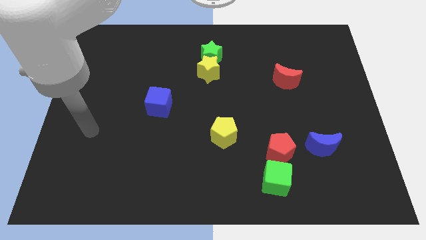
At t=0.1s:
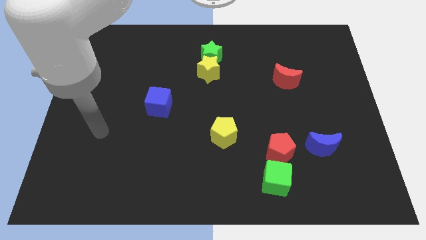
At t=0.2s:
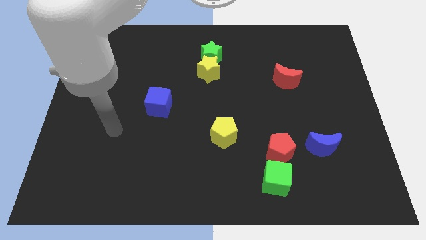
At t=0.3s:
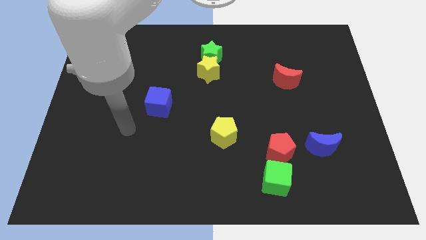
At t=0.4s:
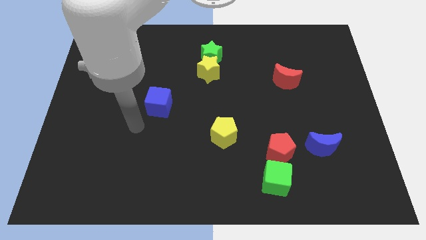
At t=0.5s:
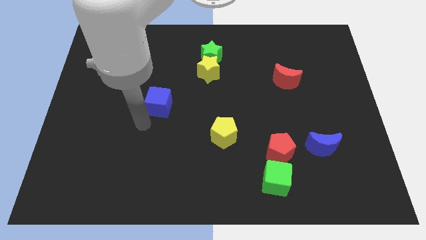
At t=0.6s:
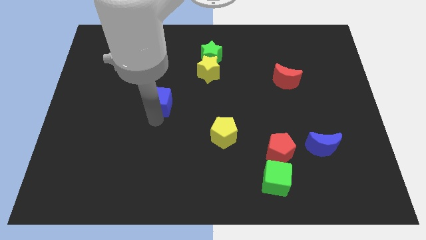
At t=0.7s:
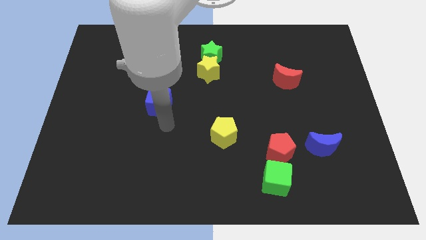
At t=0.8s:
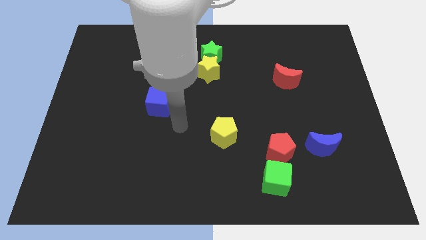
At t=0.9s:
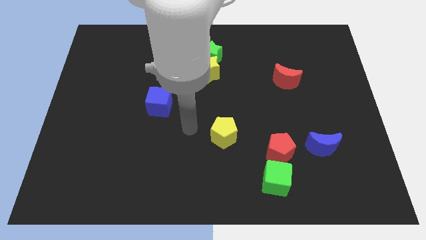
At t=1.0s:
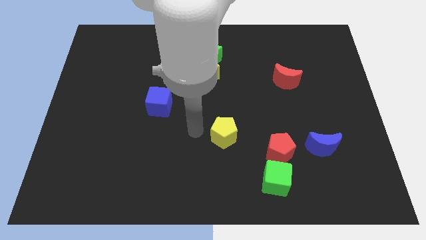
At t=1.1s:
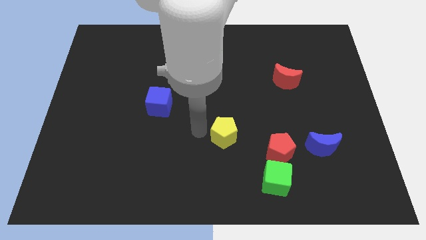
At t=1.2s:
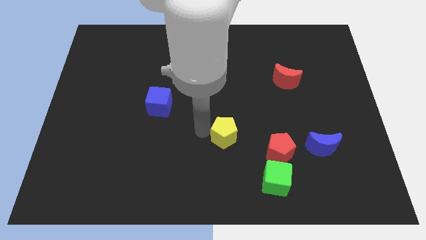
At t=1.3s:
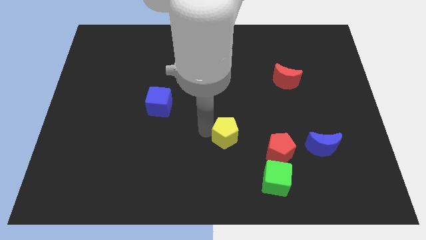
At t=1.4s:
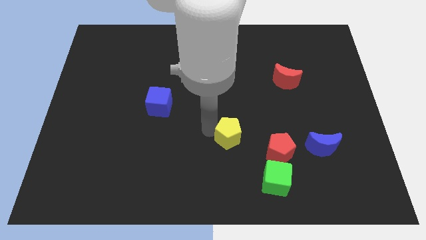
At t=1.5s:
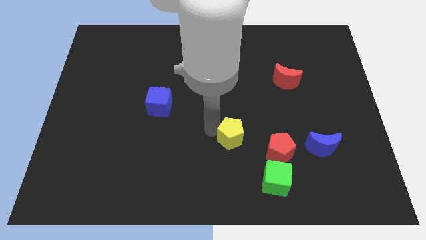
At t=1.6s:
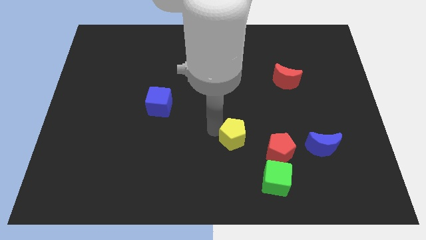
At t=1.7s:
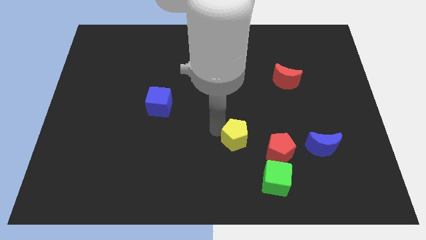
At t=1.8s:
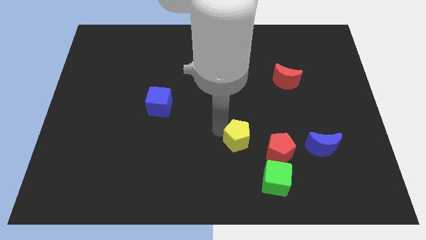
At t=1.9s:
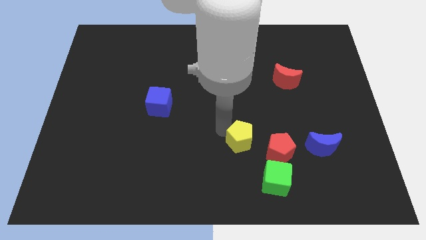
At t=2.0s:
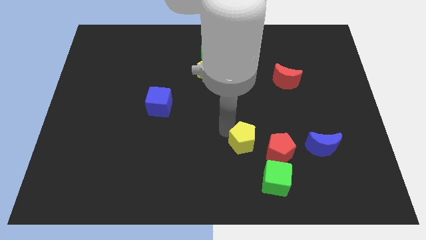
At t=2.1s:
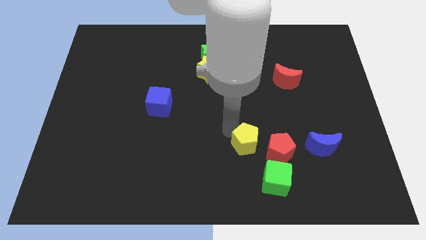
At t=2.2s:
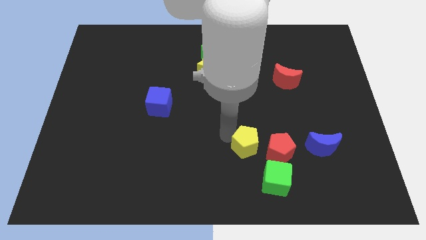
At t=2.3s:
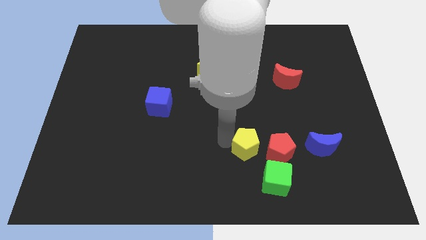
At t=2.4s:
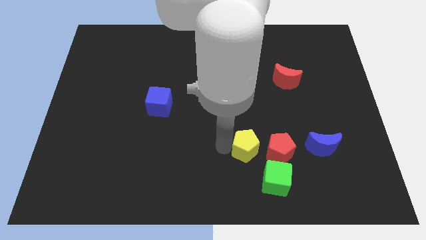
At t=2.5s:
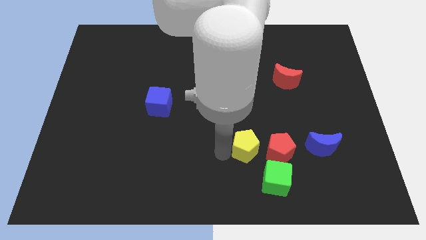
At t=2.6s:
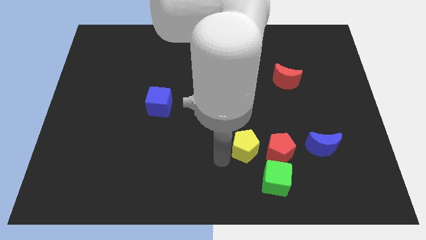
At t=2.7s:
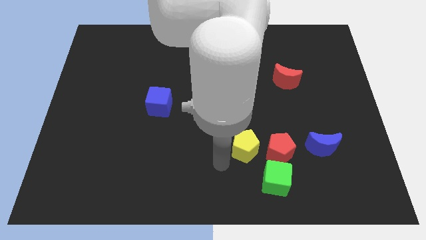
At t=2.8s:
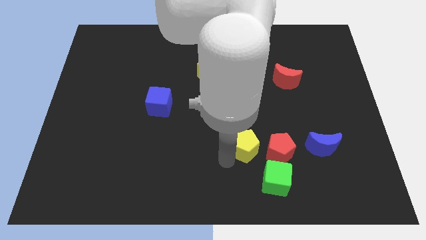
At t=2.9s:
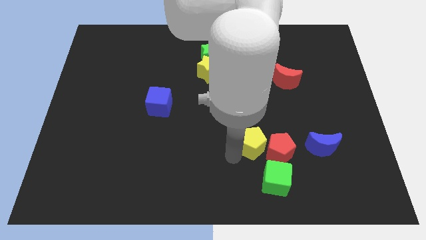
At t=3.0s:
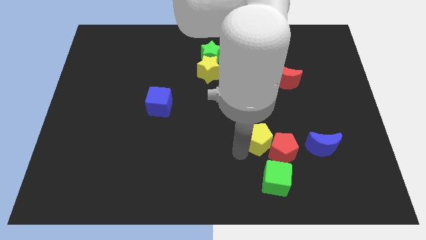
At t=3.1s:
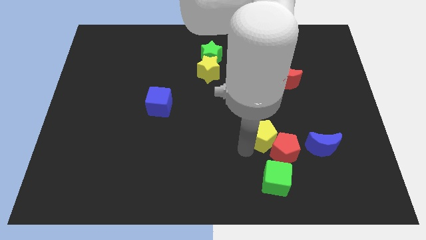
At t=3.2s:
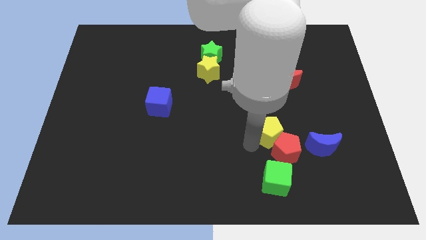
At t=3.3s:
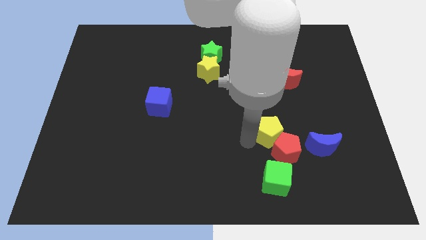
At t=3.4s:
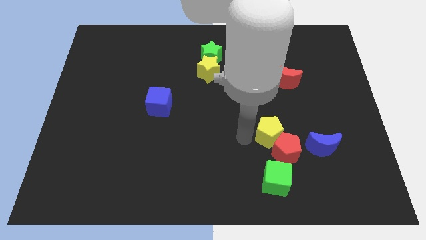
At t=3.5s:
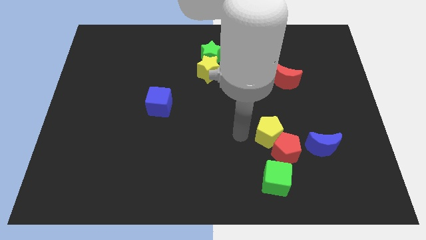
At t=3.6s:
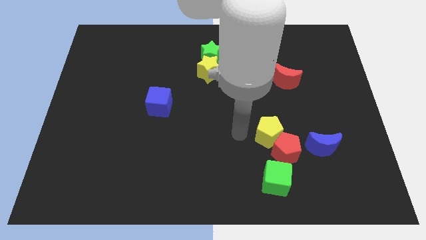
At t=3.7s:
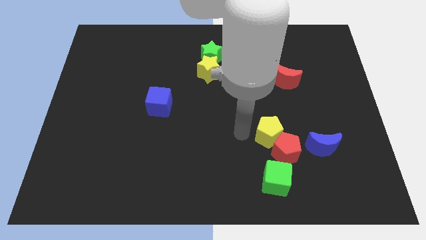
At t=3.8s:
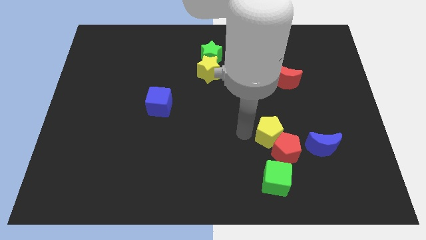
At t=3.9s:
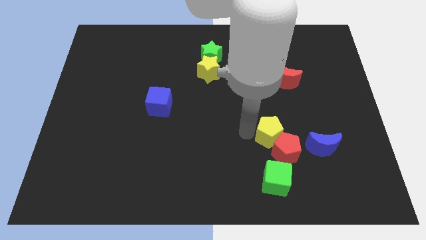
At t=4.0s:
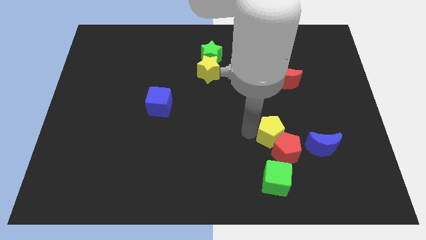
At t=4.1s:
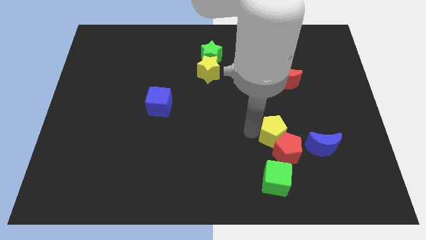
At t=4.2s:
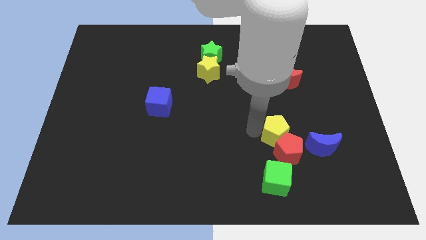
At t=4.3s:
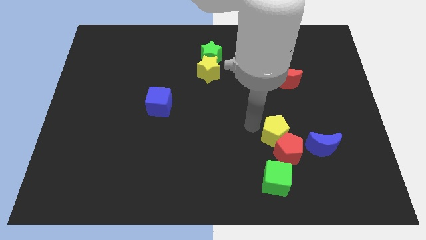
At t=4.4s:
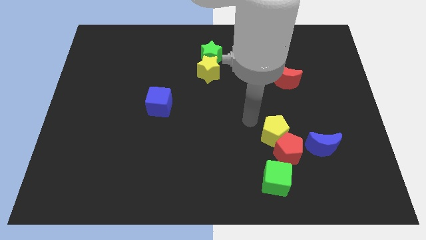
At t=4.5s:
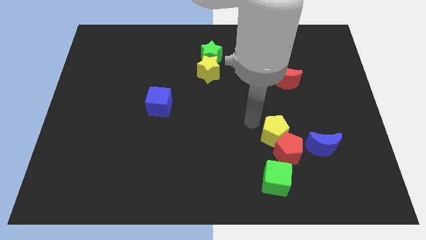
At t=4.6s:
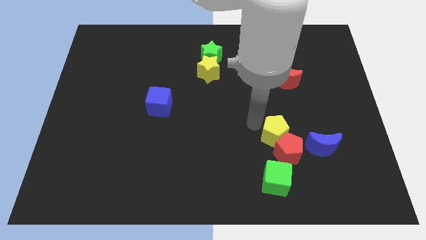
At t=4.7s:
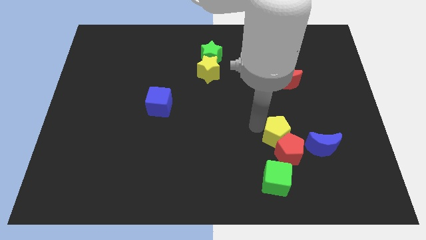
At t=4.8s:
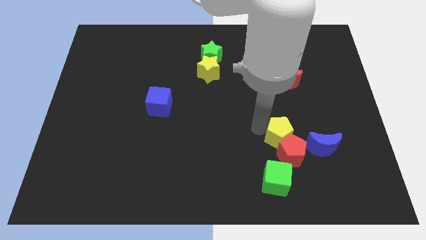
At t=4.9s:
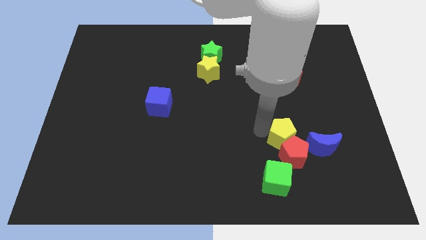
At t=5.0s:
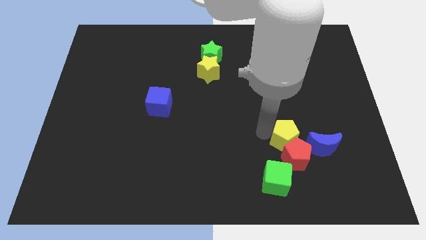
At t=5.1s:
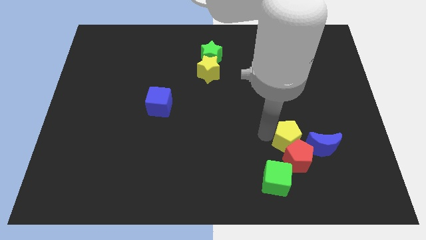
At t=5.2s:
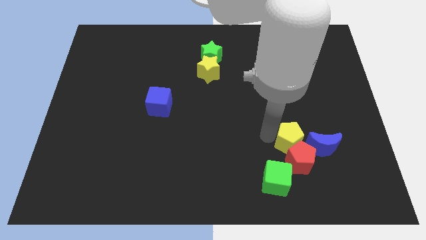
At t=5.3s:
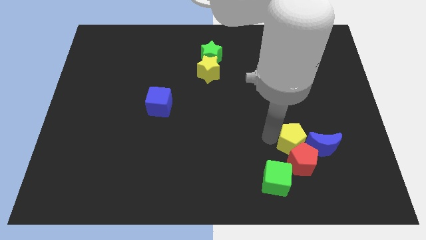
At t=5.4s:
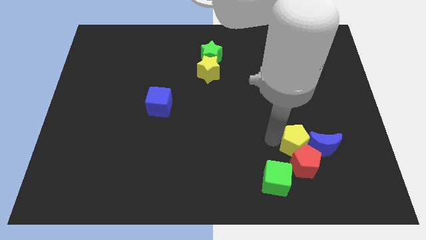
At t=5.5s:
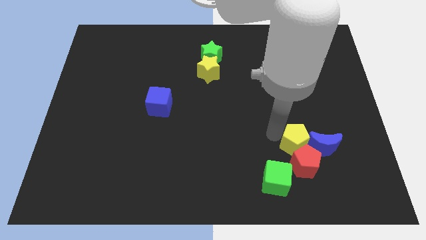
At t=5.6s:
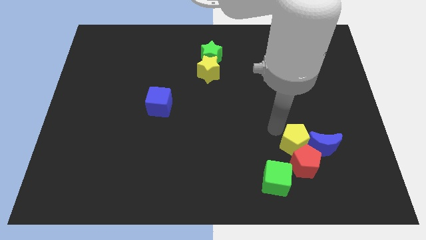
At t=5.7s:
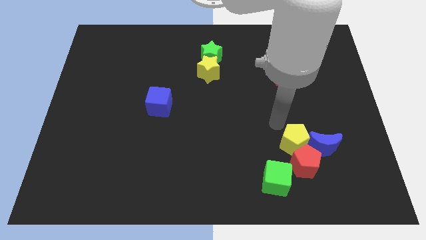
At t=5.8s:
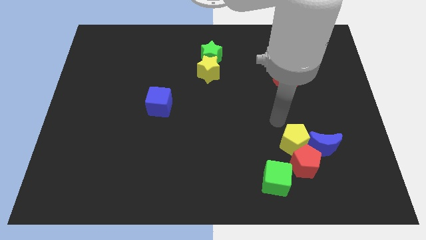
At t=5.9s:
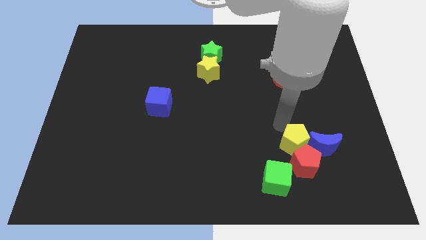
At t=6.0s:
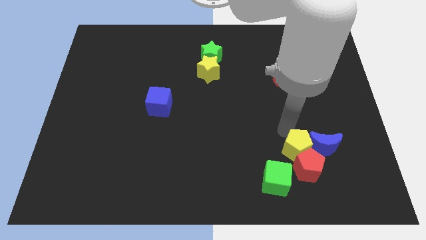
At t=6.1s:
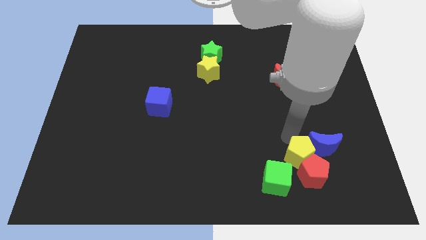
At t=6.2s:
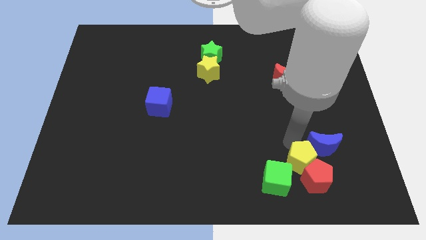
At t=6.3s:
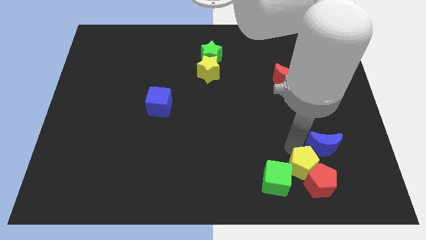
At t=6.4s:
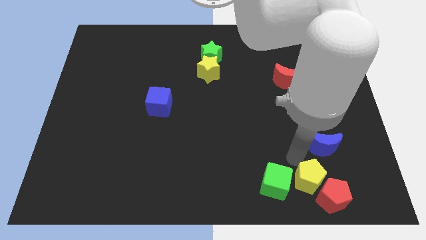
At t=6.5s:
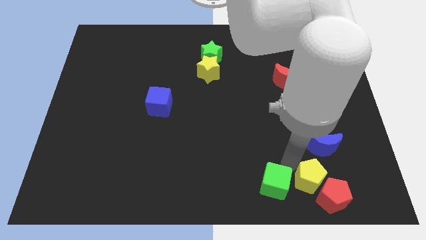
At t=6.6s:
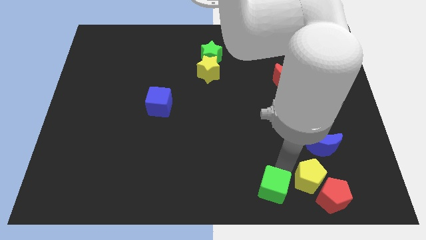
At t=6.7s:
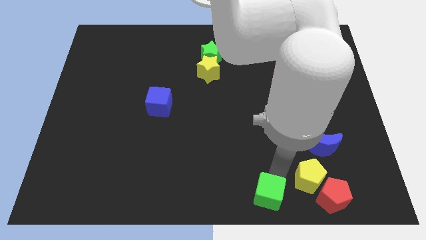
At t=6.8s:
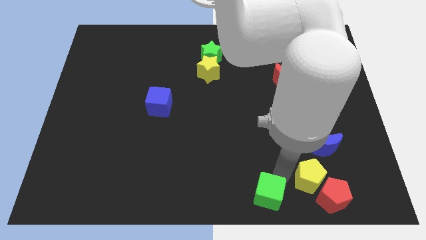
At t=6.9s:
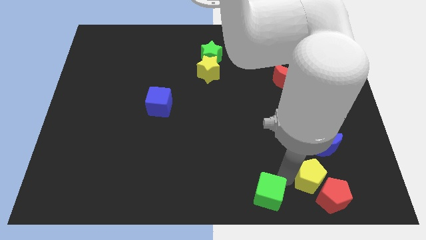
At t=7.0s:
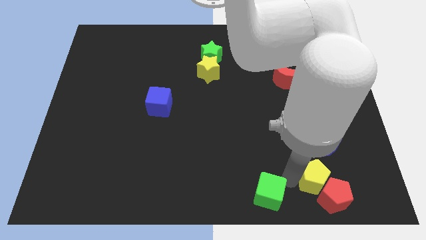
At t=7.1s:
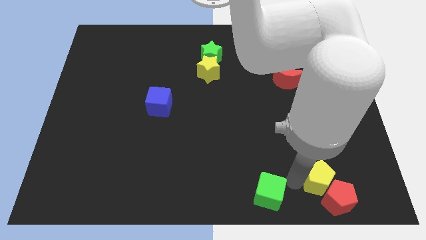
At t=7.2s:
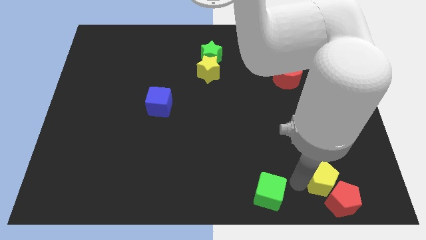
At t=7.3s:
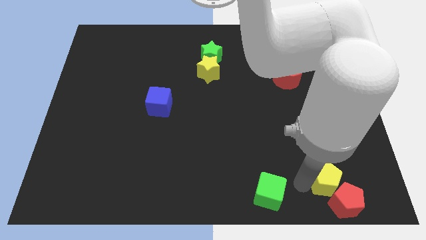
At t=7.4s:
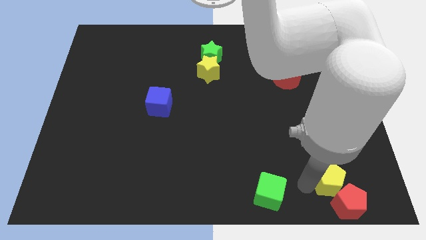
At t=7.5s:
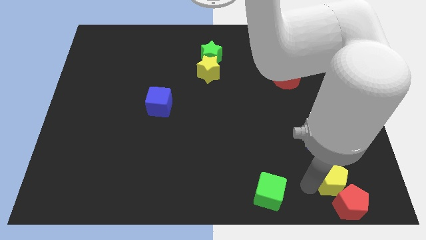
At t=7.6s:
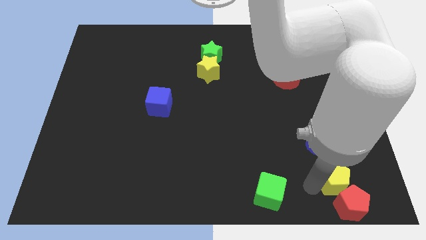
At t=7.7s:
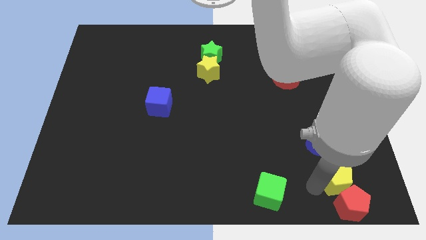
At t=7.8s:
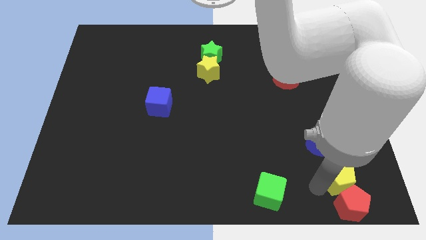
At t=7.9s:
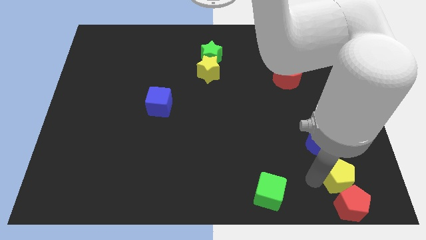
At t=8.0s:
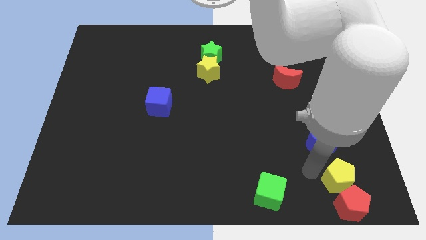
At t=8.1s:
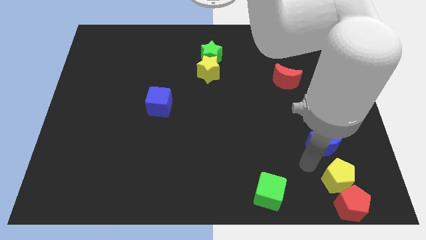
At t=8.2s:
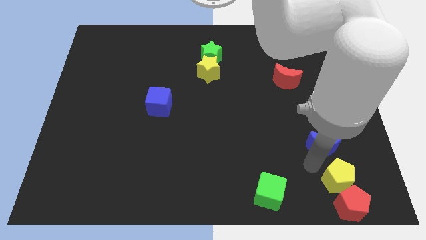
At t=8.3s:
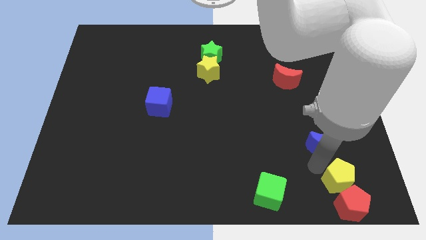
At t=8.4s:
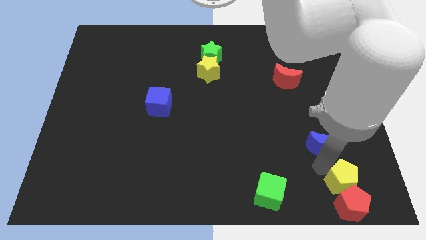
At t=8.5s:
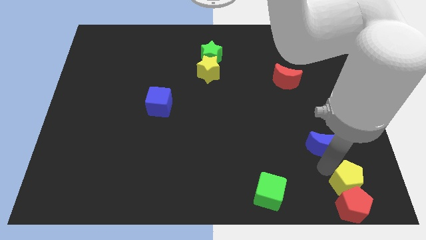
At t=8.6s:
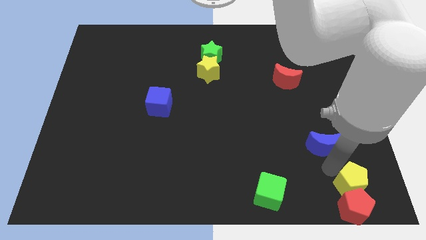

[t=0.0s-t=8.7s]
slide the yellow pentagon to the lower right corner
